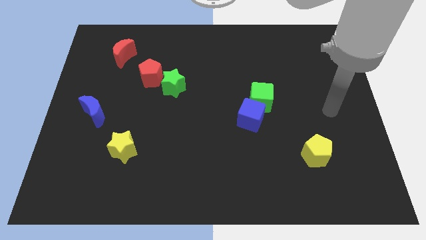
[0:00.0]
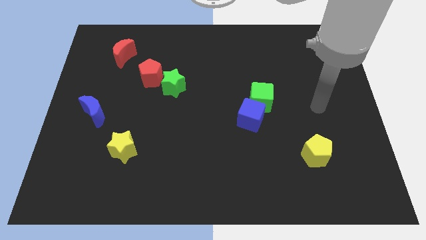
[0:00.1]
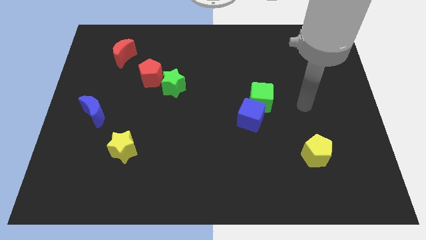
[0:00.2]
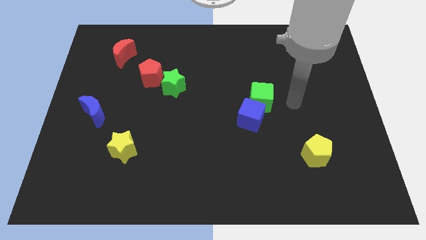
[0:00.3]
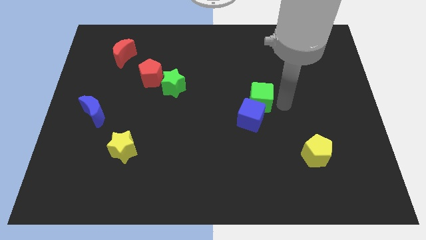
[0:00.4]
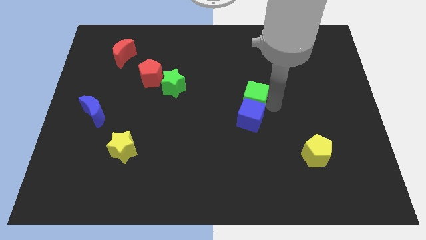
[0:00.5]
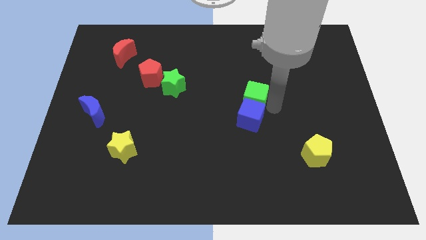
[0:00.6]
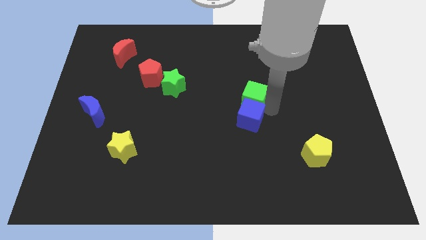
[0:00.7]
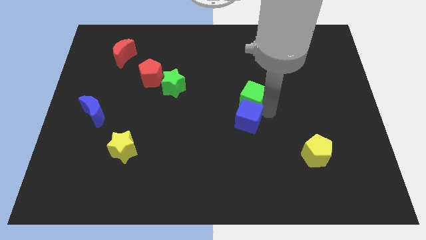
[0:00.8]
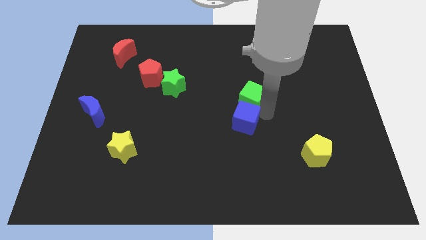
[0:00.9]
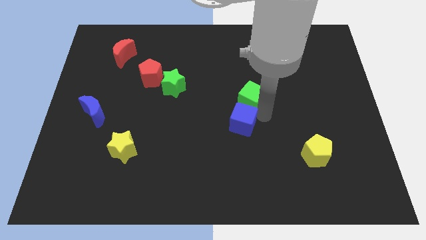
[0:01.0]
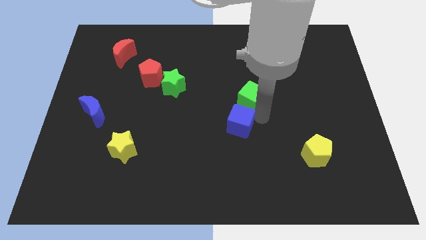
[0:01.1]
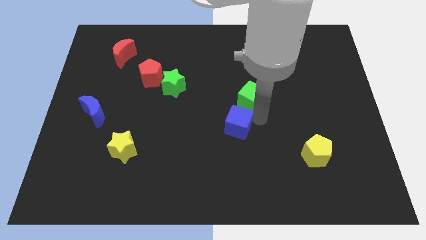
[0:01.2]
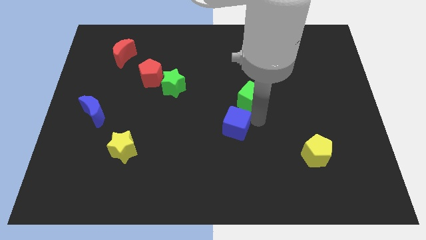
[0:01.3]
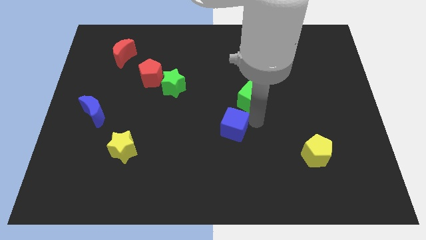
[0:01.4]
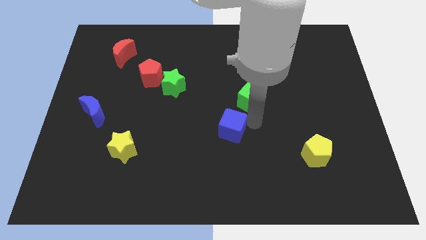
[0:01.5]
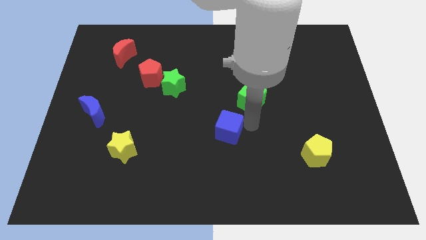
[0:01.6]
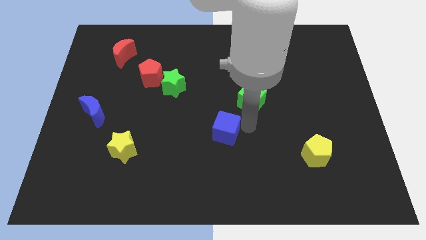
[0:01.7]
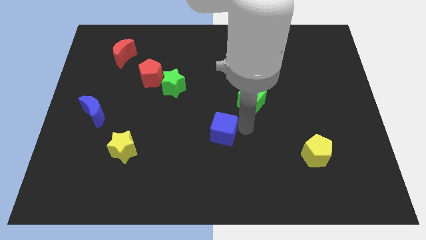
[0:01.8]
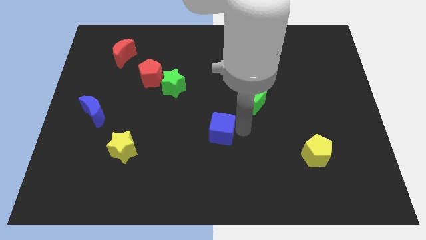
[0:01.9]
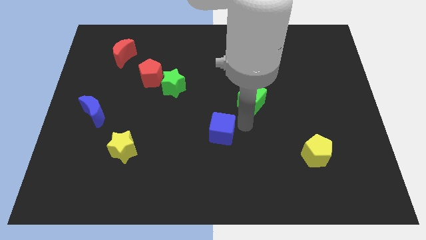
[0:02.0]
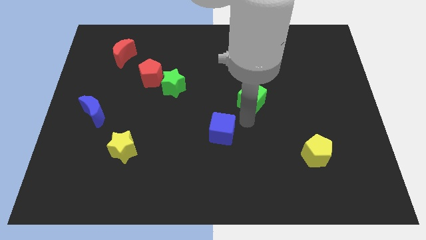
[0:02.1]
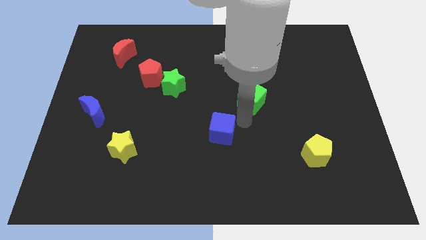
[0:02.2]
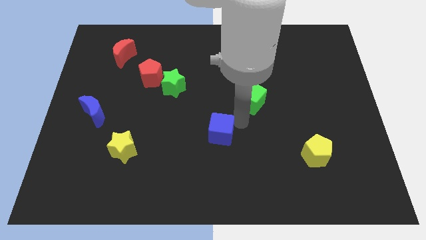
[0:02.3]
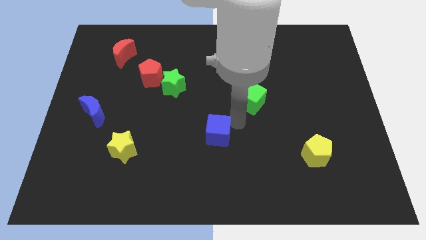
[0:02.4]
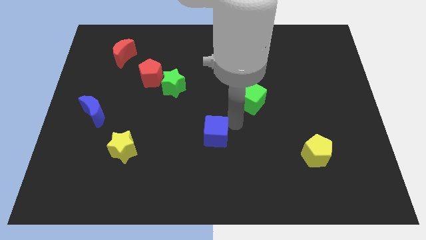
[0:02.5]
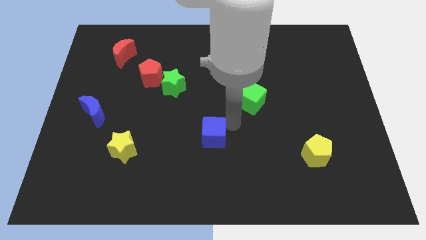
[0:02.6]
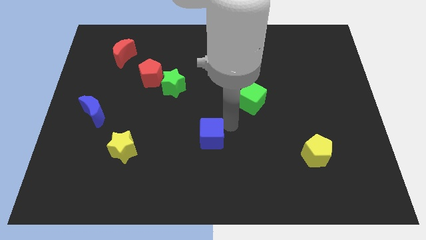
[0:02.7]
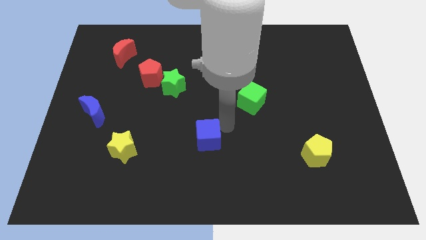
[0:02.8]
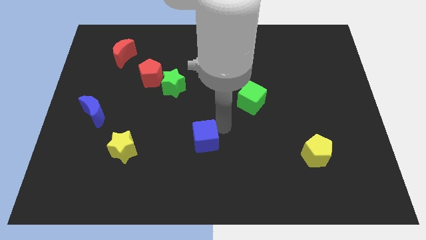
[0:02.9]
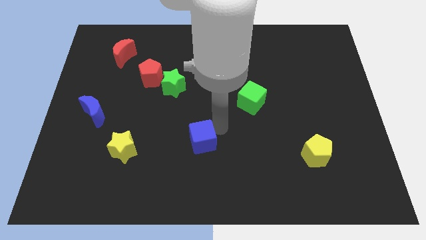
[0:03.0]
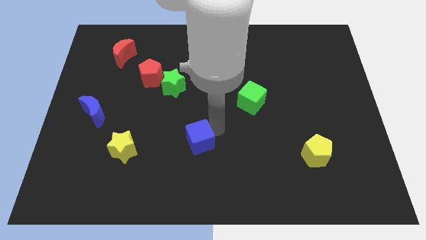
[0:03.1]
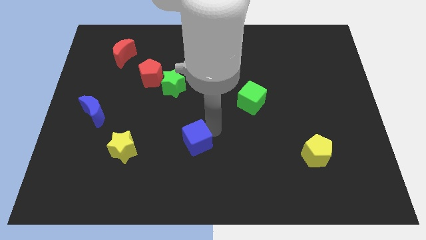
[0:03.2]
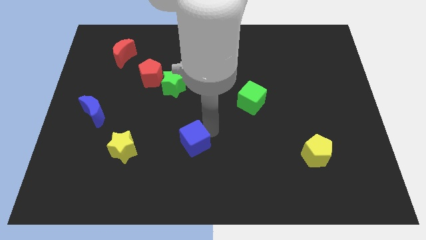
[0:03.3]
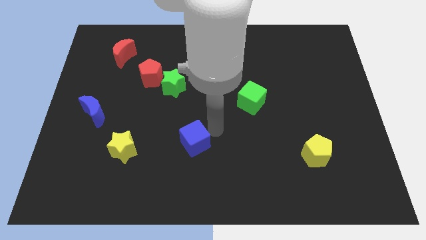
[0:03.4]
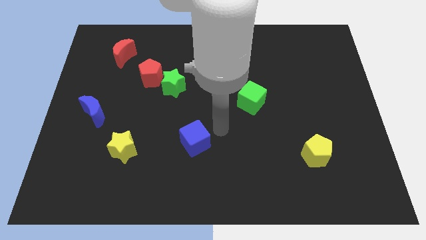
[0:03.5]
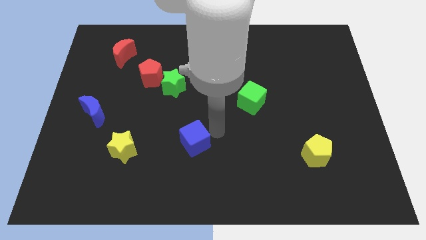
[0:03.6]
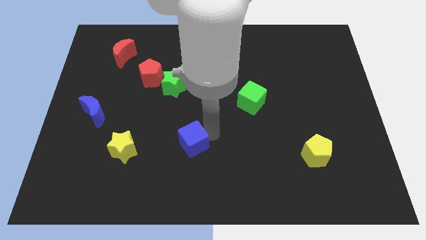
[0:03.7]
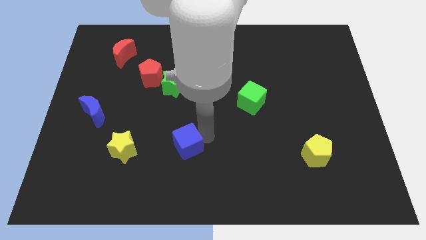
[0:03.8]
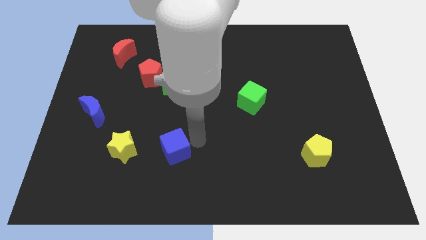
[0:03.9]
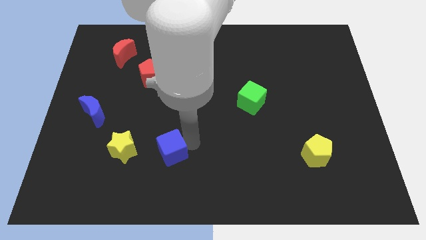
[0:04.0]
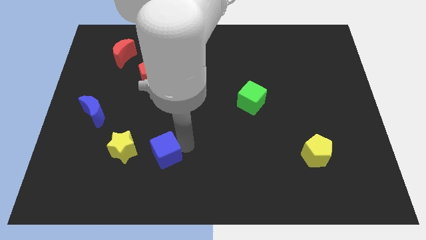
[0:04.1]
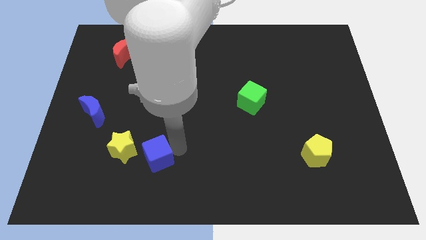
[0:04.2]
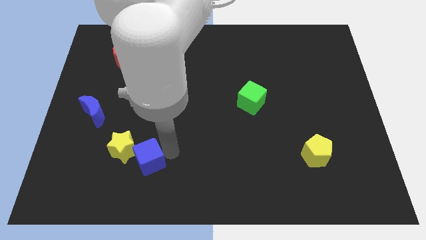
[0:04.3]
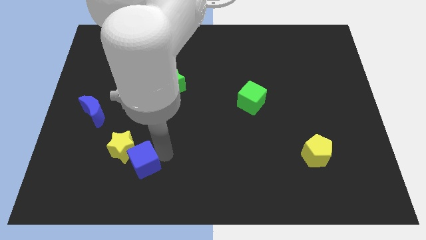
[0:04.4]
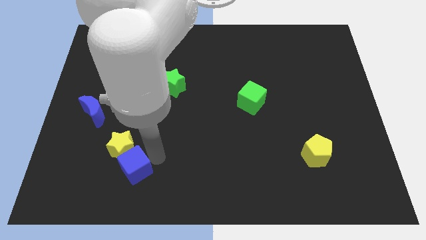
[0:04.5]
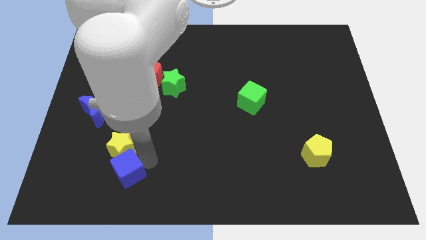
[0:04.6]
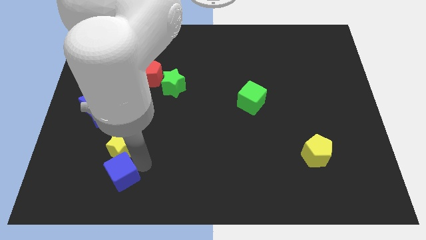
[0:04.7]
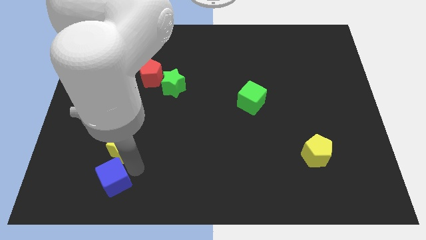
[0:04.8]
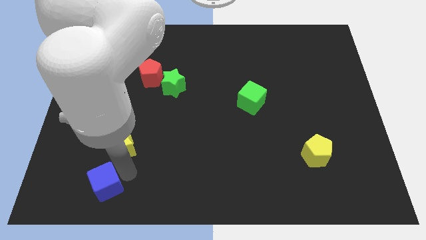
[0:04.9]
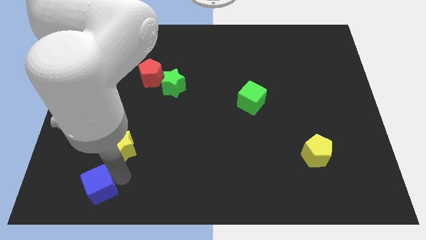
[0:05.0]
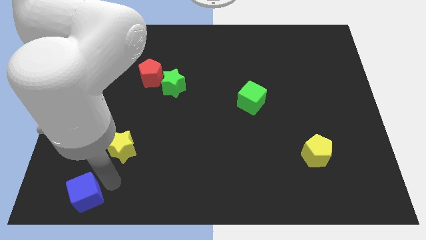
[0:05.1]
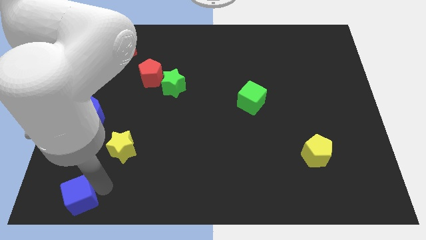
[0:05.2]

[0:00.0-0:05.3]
push the blue cube to the bottom left

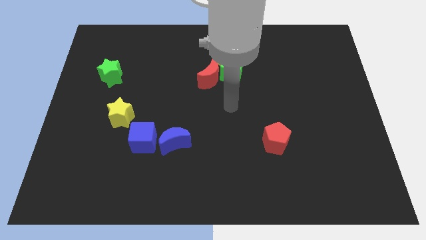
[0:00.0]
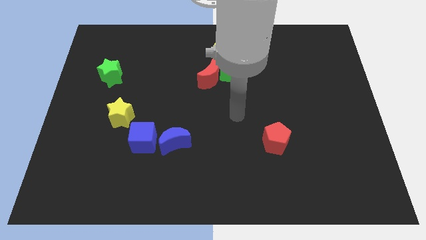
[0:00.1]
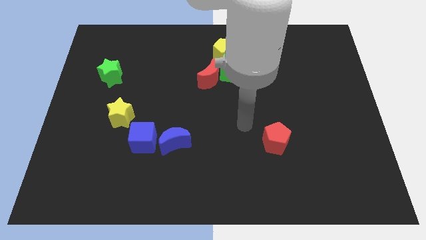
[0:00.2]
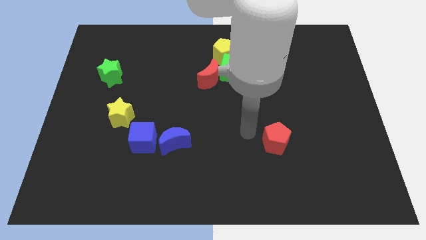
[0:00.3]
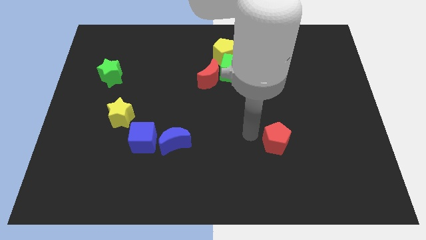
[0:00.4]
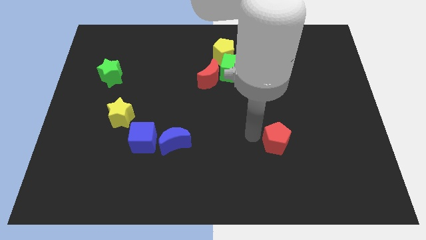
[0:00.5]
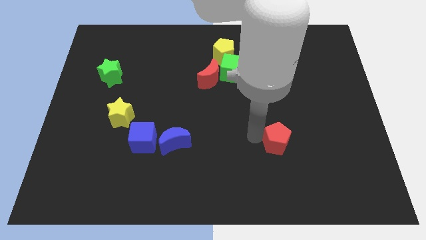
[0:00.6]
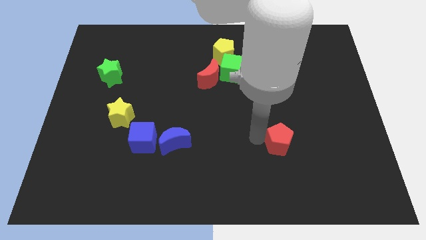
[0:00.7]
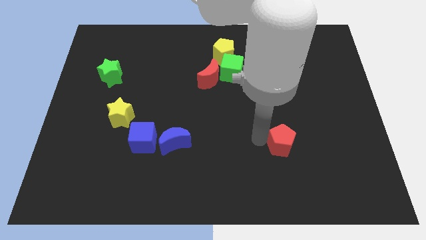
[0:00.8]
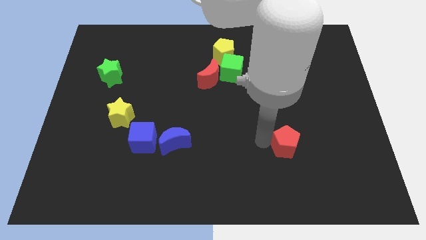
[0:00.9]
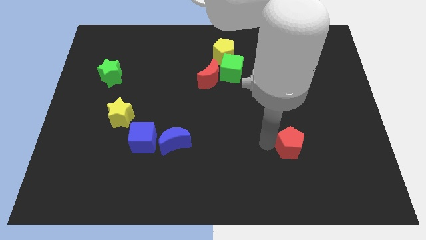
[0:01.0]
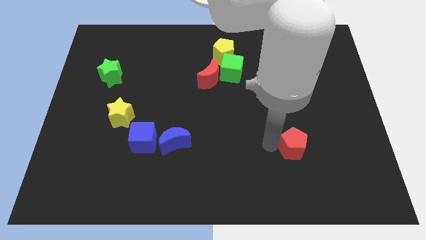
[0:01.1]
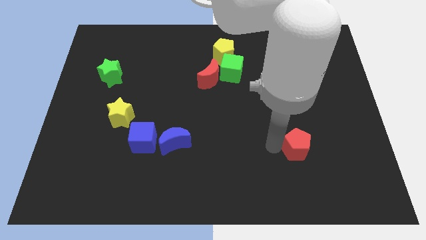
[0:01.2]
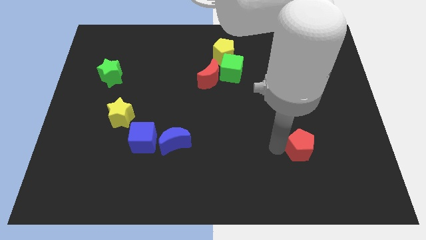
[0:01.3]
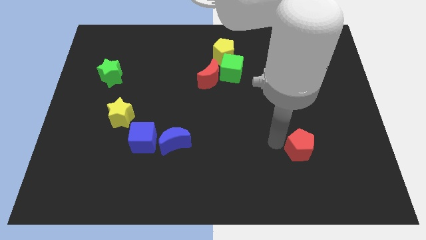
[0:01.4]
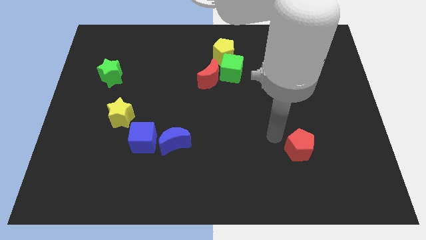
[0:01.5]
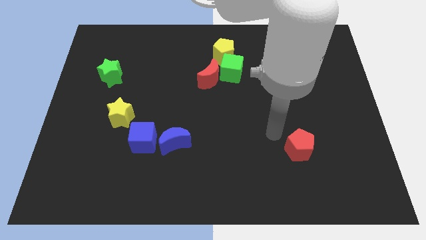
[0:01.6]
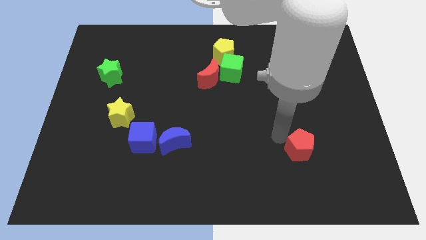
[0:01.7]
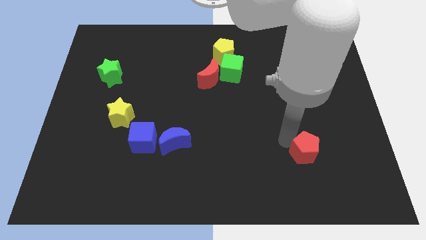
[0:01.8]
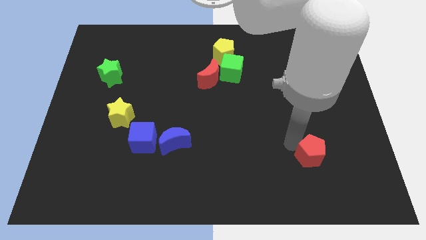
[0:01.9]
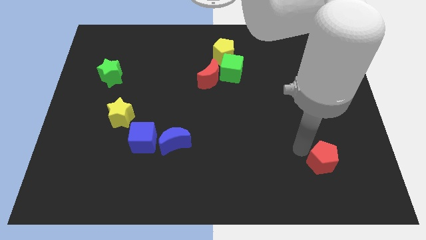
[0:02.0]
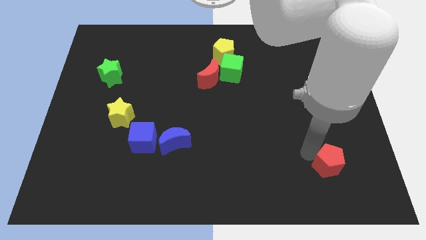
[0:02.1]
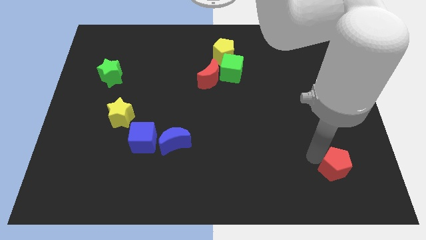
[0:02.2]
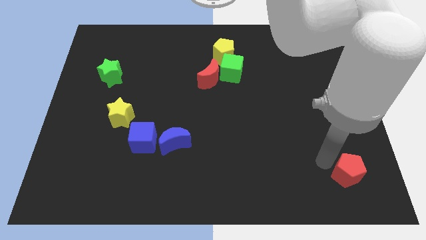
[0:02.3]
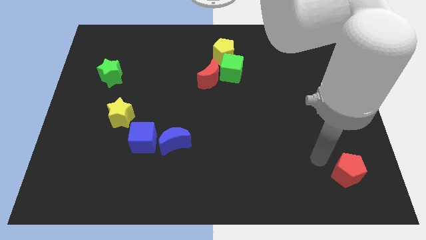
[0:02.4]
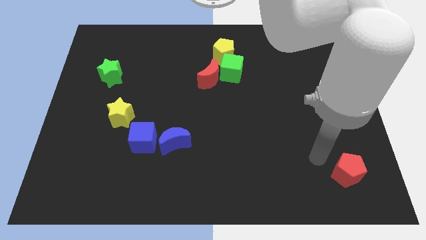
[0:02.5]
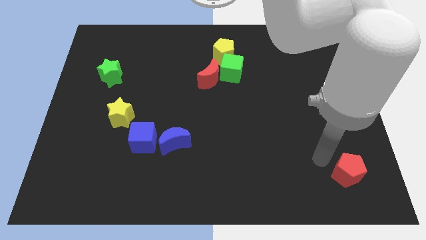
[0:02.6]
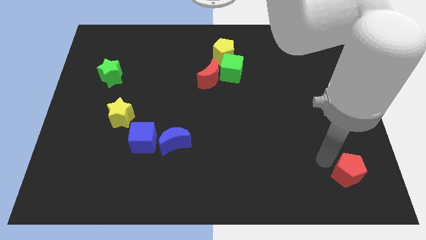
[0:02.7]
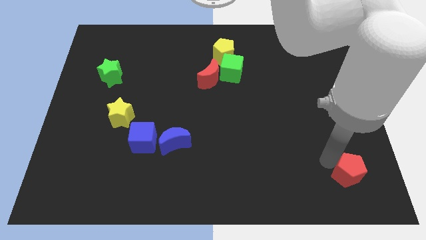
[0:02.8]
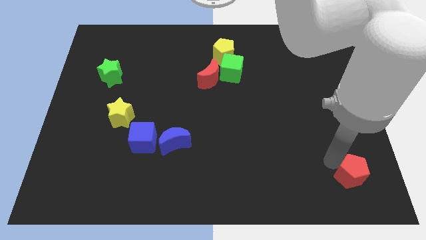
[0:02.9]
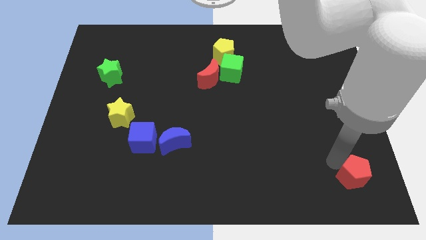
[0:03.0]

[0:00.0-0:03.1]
move the red pentagon to the lower right corner
